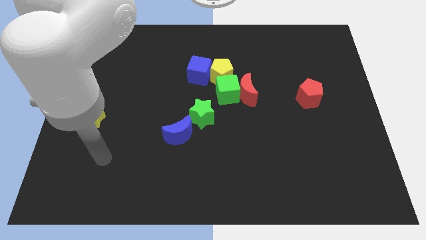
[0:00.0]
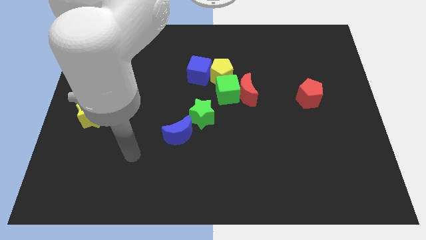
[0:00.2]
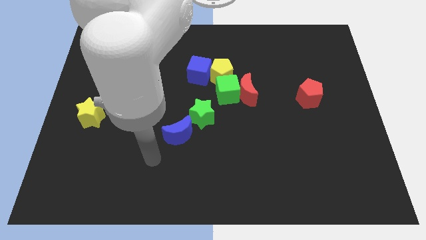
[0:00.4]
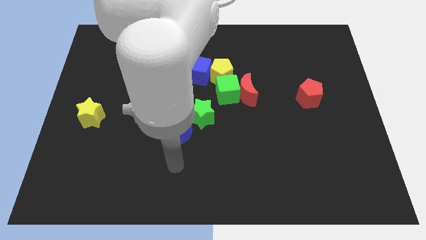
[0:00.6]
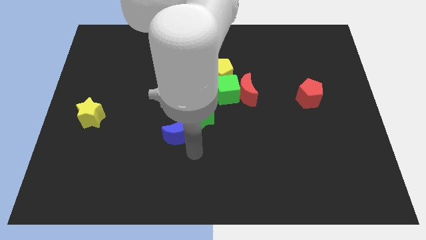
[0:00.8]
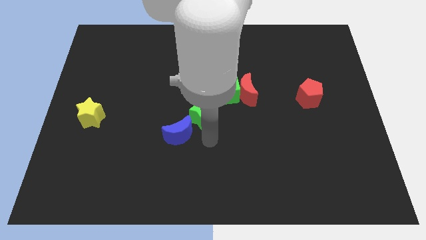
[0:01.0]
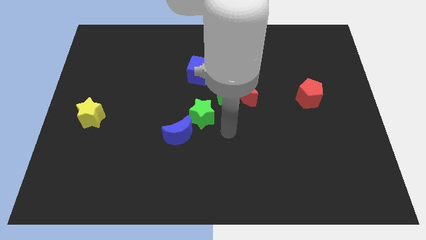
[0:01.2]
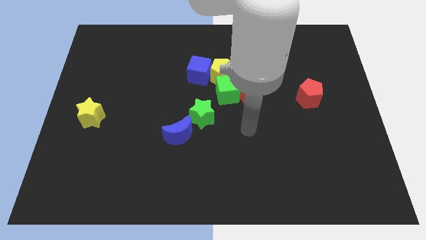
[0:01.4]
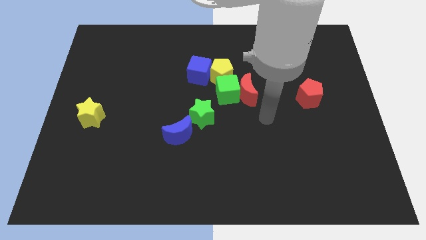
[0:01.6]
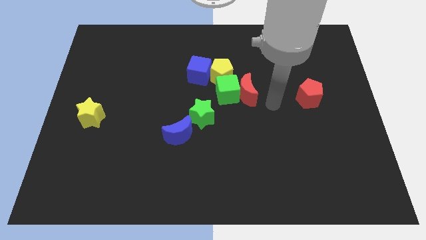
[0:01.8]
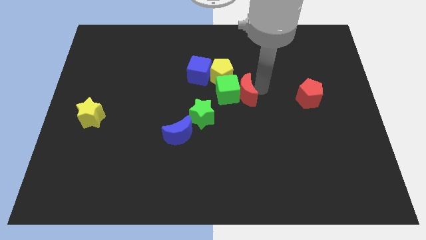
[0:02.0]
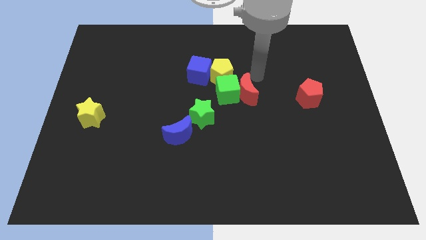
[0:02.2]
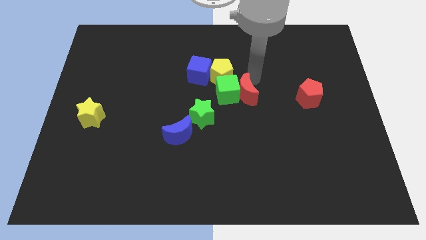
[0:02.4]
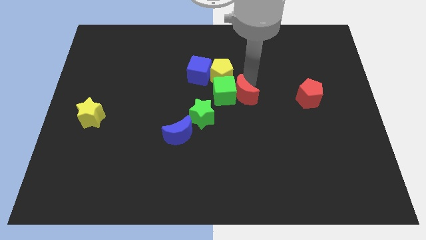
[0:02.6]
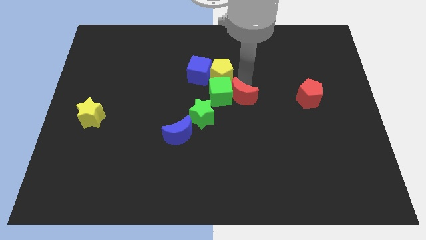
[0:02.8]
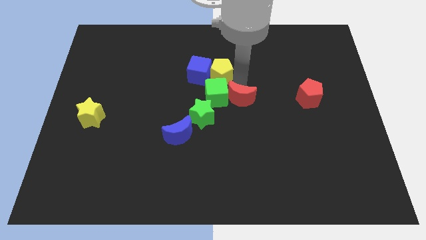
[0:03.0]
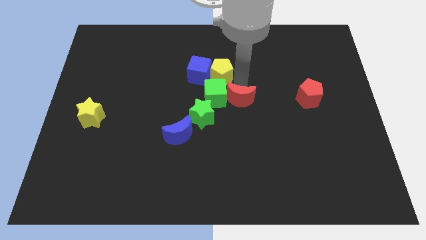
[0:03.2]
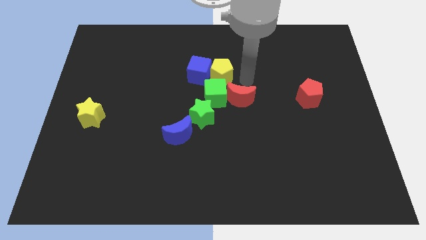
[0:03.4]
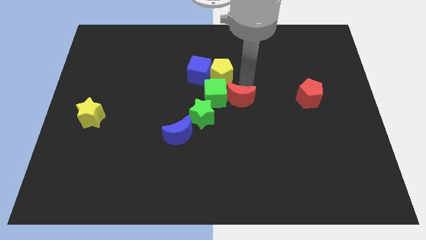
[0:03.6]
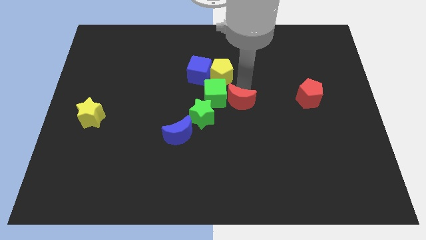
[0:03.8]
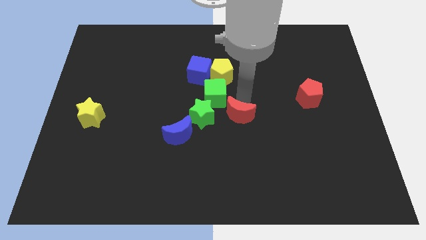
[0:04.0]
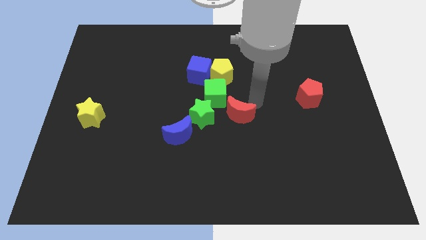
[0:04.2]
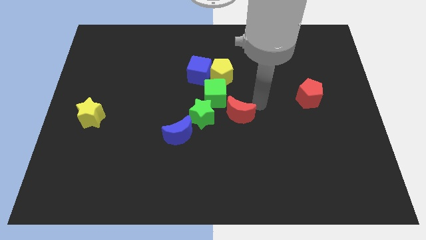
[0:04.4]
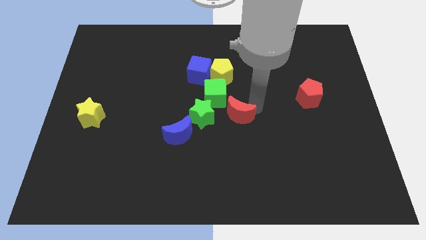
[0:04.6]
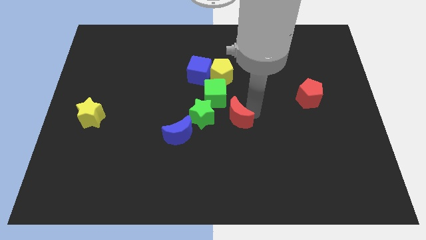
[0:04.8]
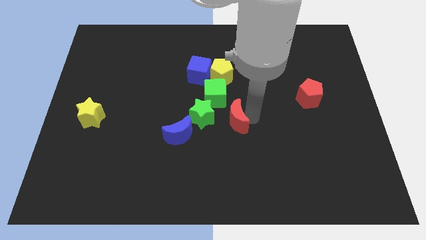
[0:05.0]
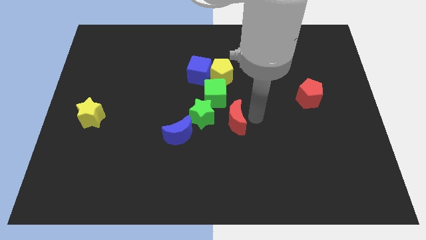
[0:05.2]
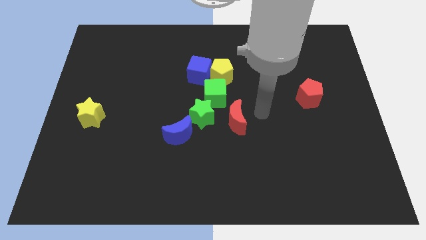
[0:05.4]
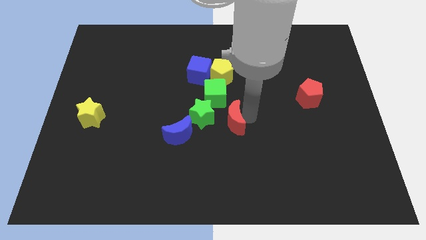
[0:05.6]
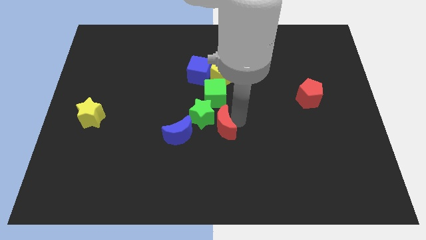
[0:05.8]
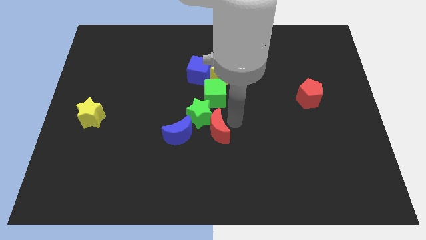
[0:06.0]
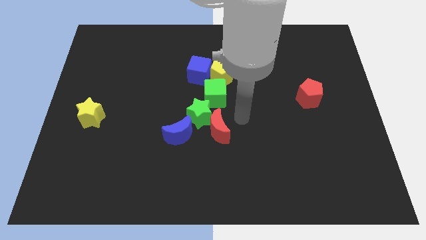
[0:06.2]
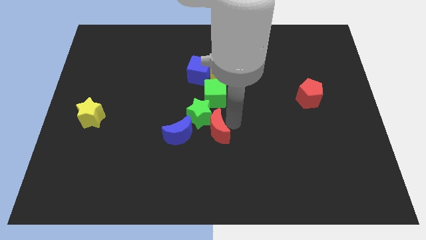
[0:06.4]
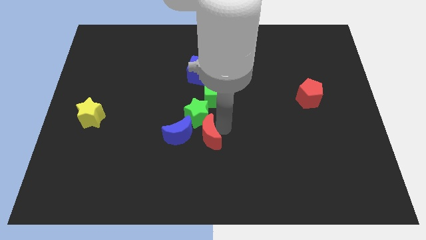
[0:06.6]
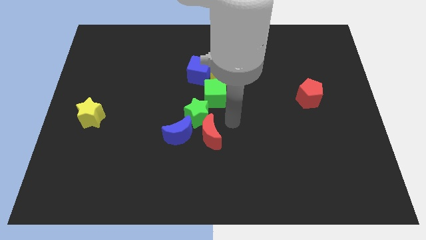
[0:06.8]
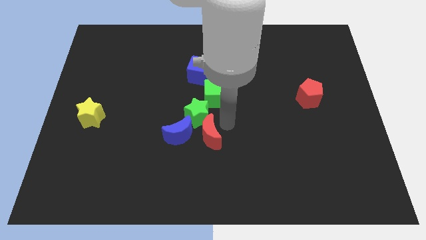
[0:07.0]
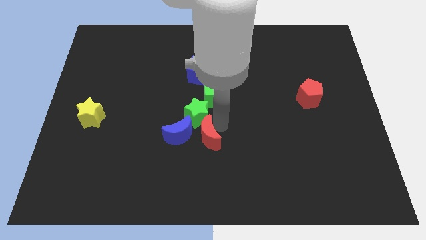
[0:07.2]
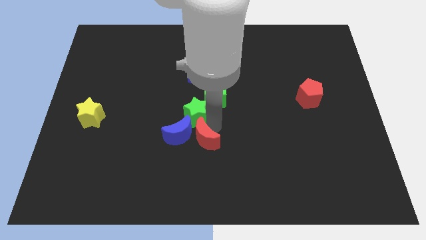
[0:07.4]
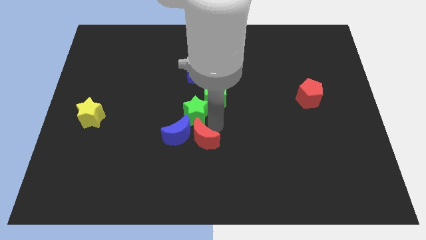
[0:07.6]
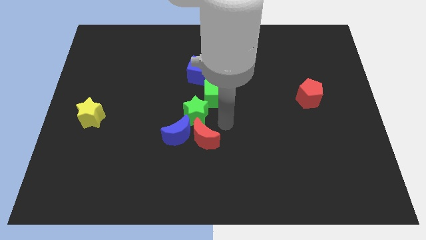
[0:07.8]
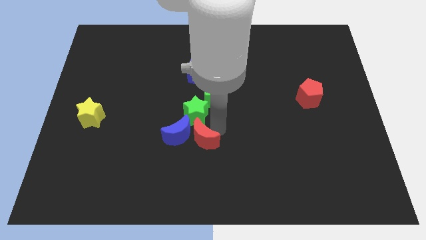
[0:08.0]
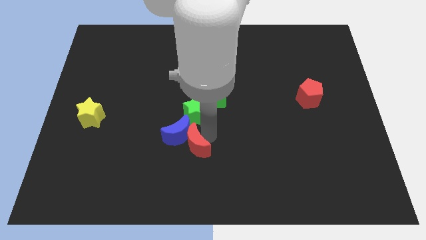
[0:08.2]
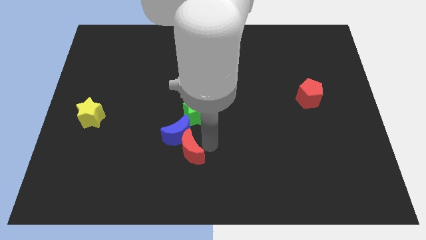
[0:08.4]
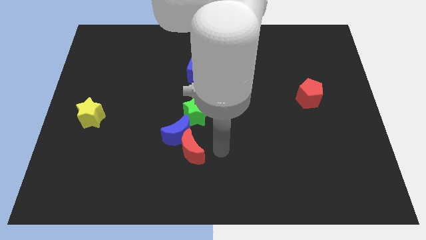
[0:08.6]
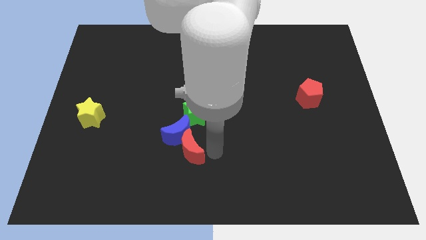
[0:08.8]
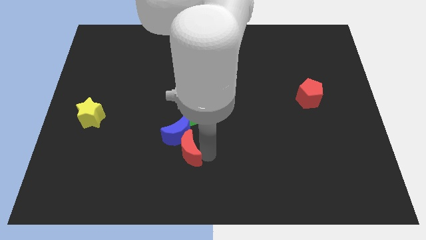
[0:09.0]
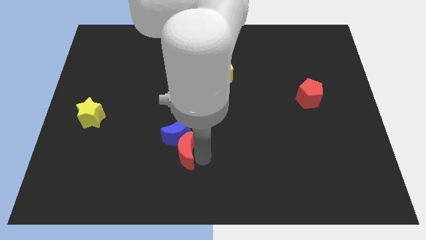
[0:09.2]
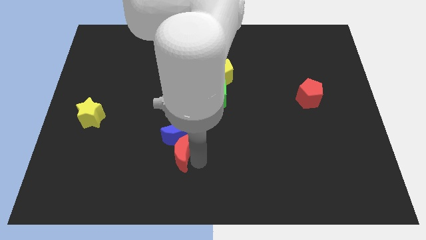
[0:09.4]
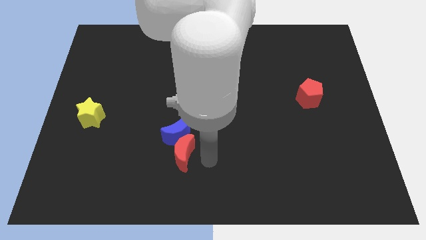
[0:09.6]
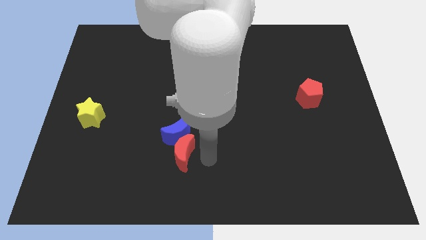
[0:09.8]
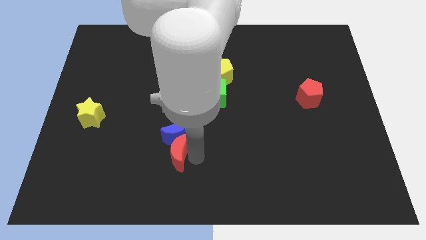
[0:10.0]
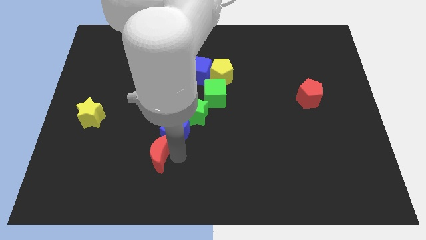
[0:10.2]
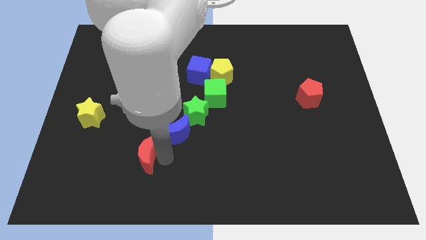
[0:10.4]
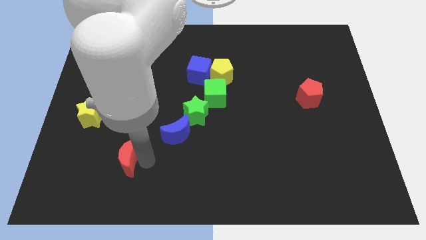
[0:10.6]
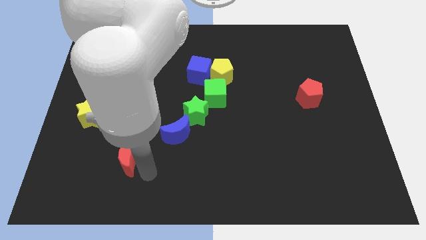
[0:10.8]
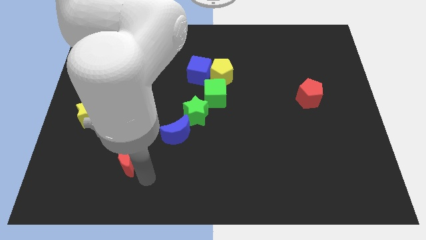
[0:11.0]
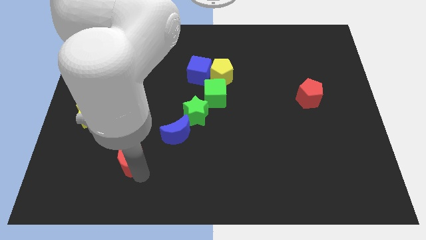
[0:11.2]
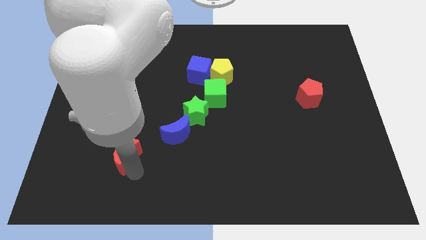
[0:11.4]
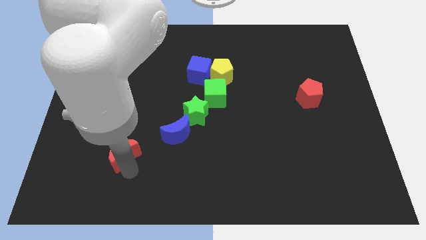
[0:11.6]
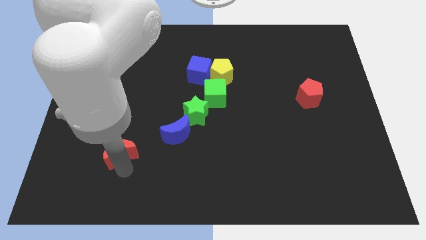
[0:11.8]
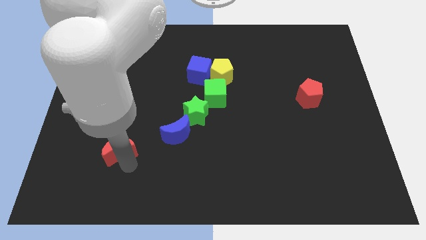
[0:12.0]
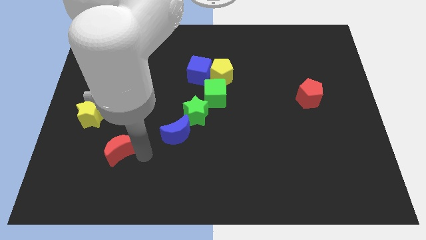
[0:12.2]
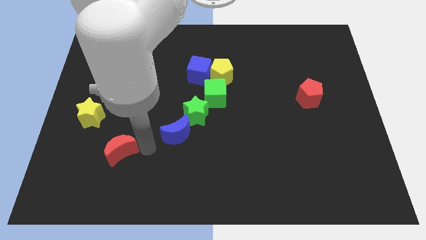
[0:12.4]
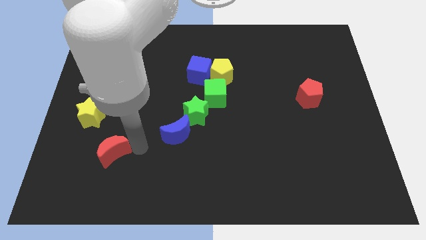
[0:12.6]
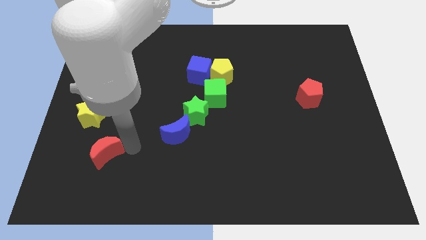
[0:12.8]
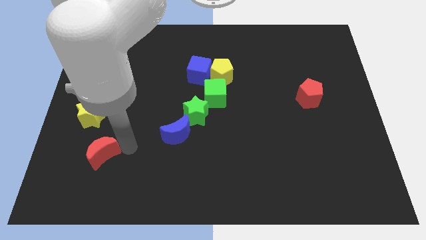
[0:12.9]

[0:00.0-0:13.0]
push the red moon below the yellow star
